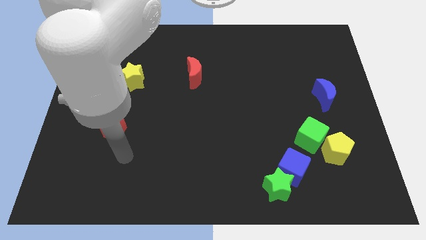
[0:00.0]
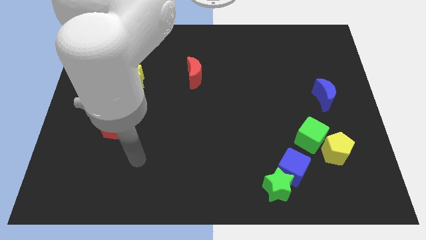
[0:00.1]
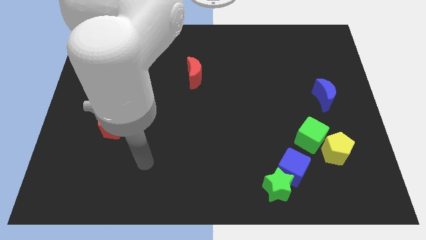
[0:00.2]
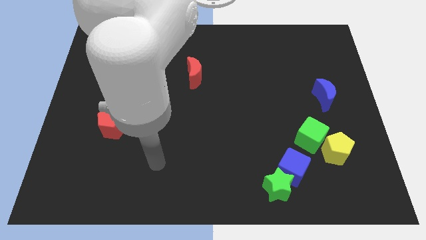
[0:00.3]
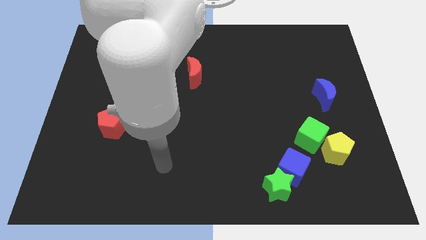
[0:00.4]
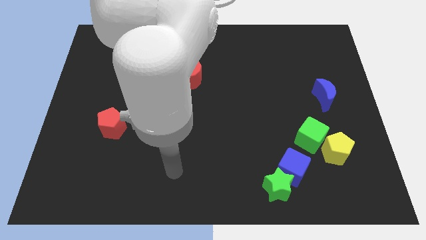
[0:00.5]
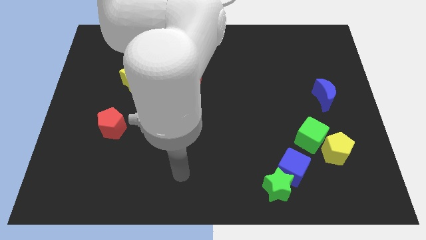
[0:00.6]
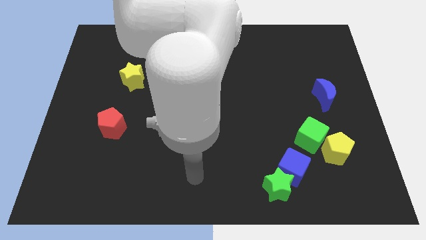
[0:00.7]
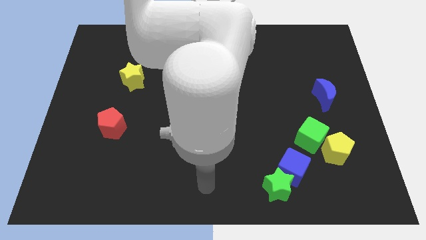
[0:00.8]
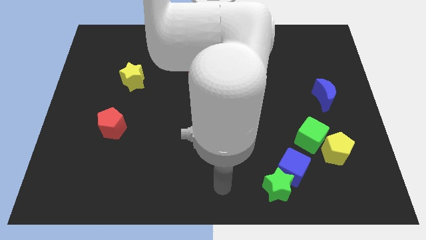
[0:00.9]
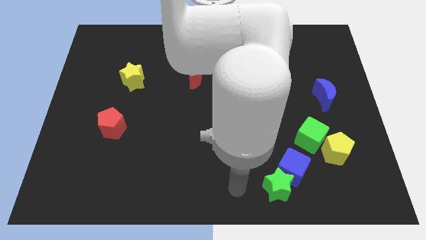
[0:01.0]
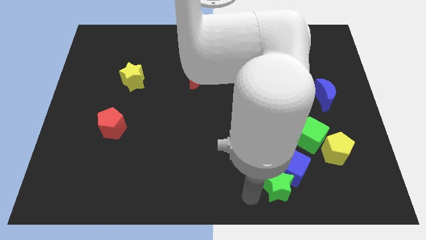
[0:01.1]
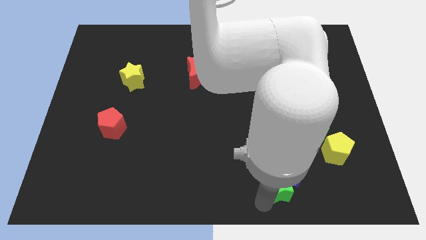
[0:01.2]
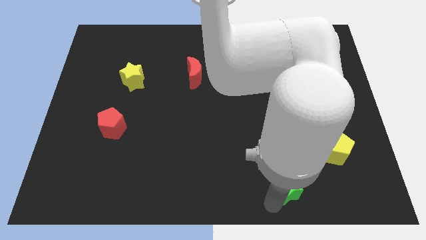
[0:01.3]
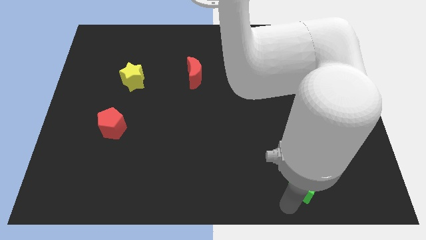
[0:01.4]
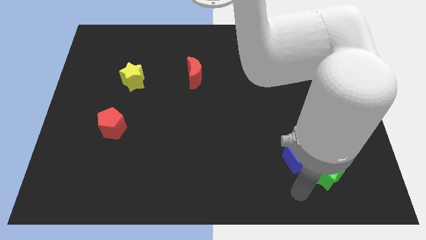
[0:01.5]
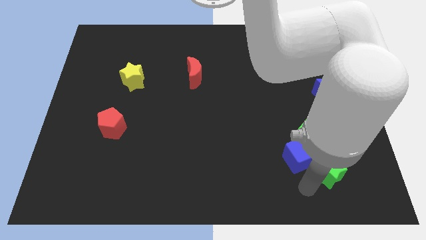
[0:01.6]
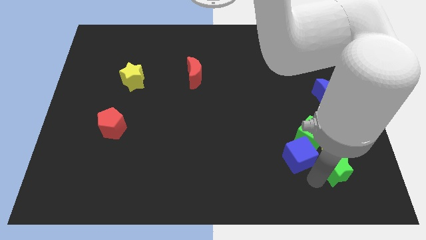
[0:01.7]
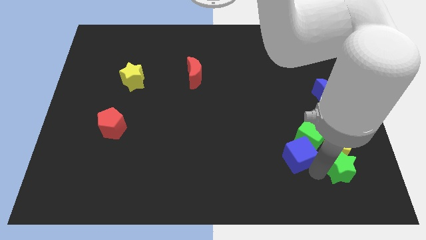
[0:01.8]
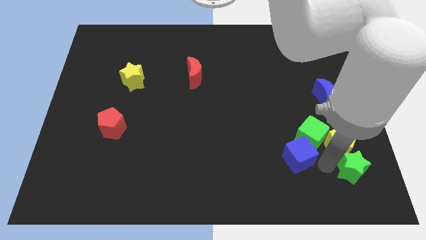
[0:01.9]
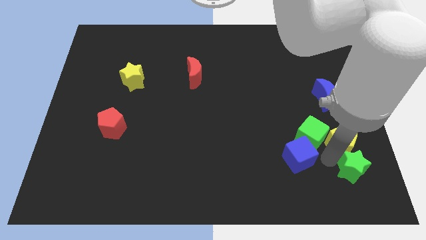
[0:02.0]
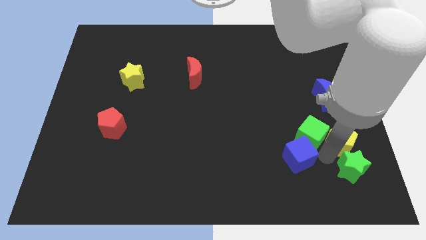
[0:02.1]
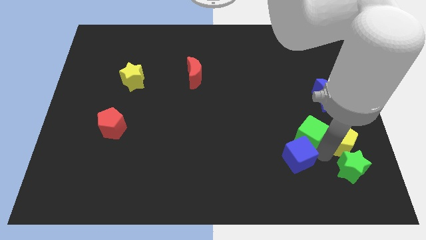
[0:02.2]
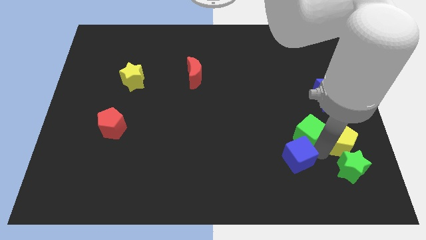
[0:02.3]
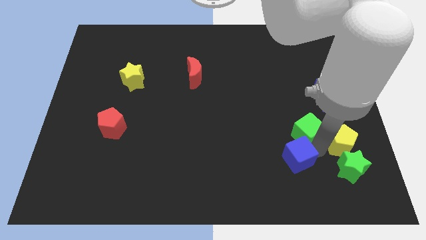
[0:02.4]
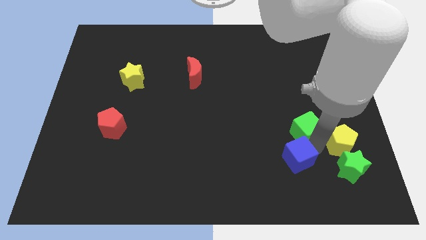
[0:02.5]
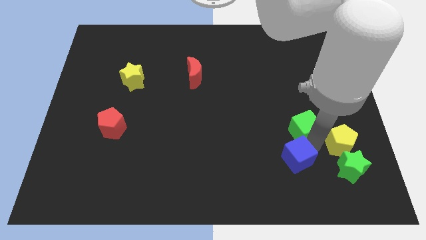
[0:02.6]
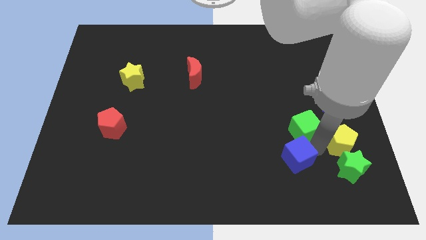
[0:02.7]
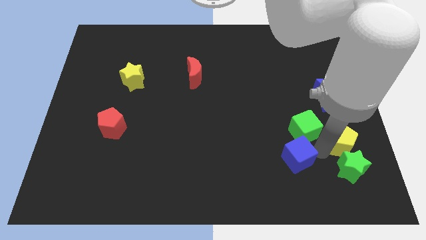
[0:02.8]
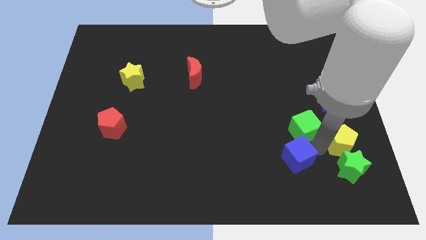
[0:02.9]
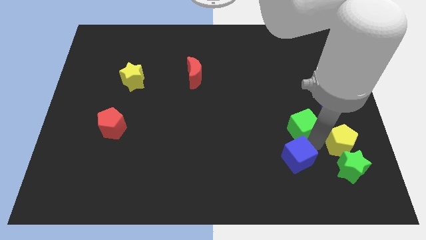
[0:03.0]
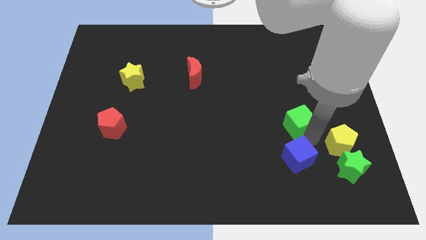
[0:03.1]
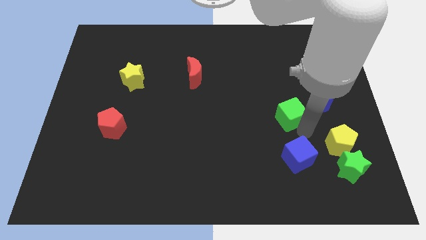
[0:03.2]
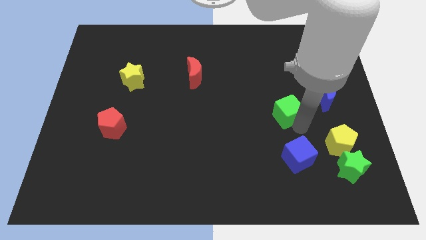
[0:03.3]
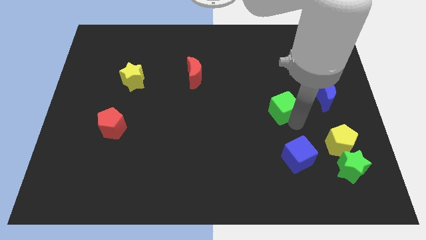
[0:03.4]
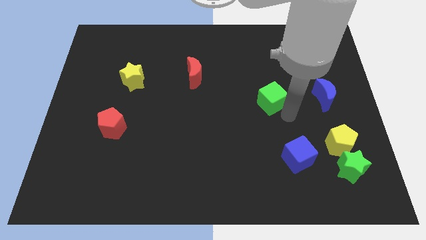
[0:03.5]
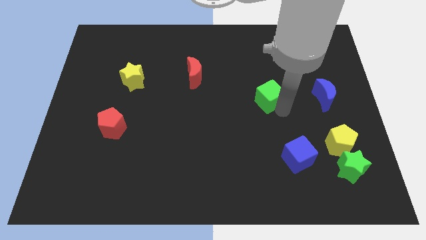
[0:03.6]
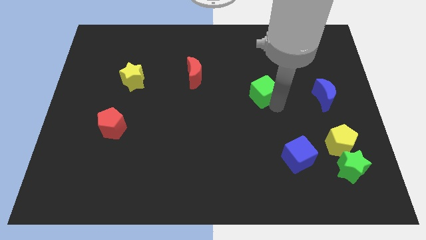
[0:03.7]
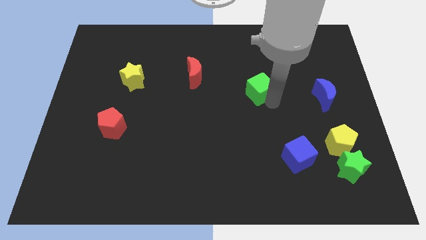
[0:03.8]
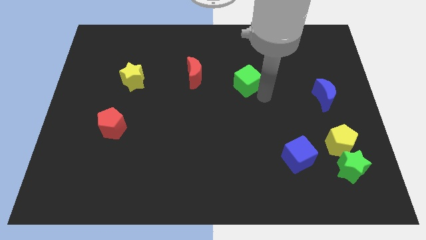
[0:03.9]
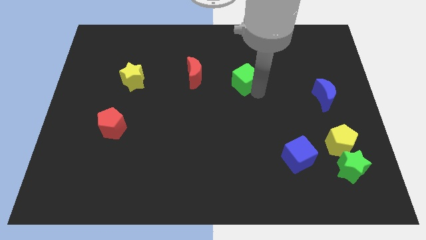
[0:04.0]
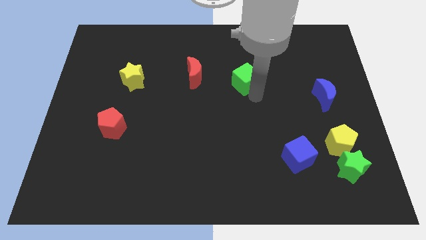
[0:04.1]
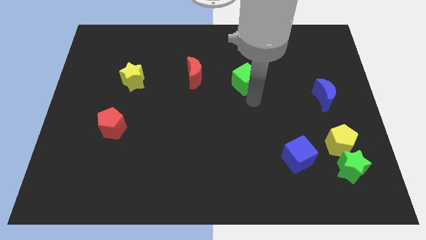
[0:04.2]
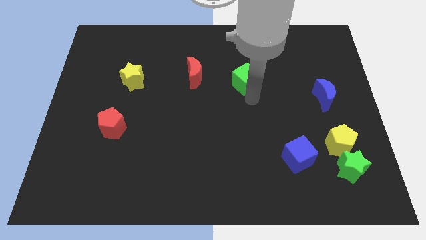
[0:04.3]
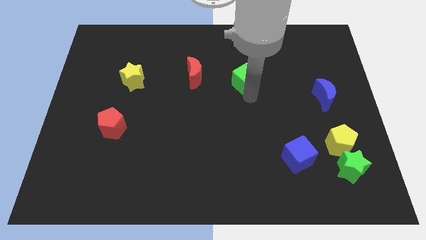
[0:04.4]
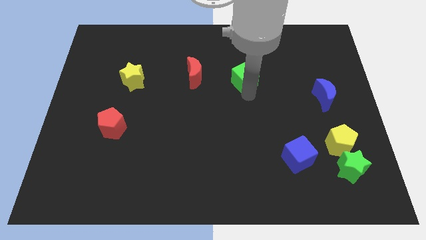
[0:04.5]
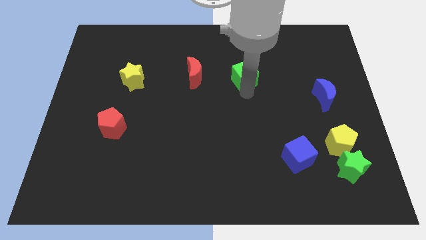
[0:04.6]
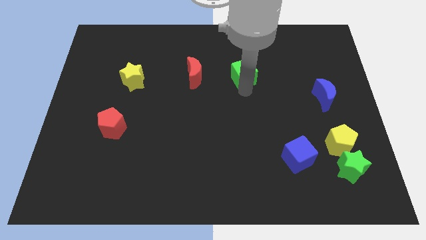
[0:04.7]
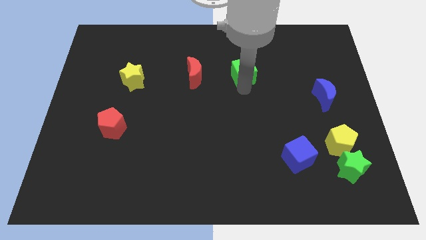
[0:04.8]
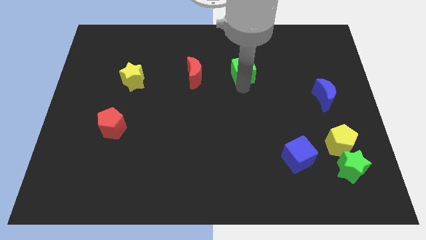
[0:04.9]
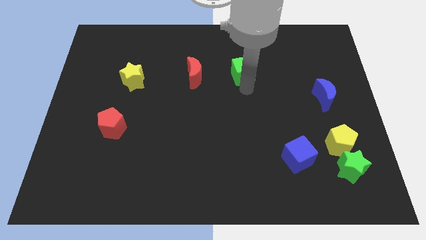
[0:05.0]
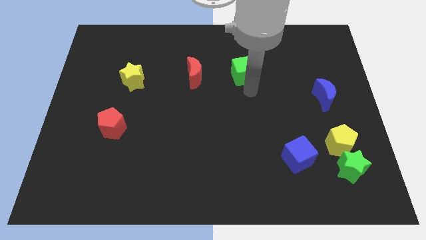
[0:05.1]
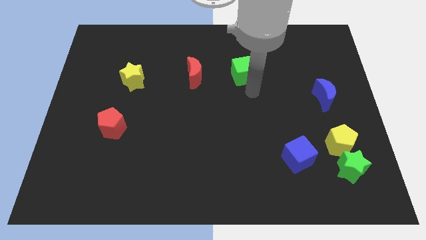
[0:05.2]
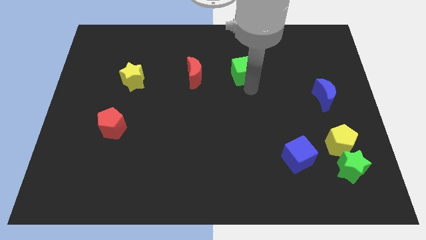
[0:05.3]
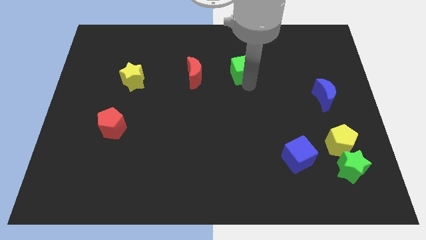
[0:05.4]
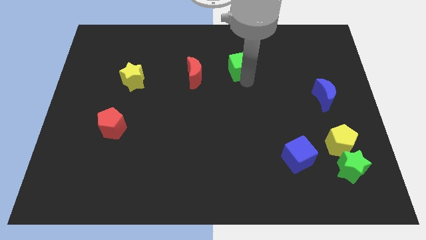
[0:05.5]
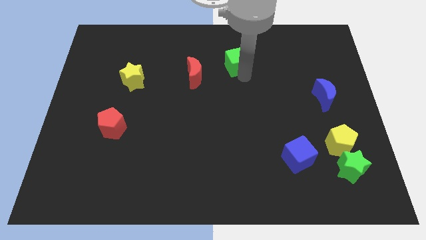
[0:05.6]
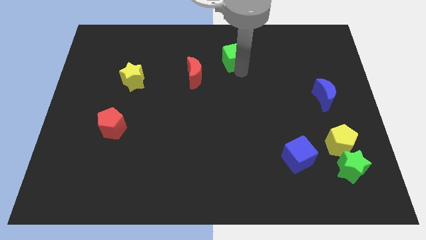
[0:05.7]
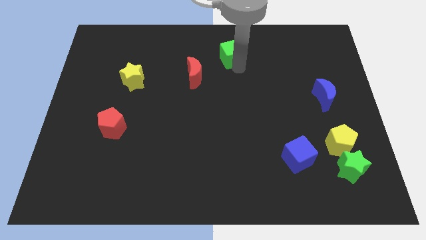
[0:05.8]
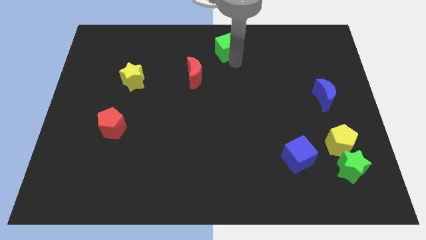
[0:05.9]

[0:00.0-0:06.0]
slide the green cube to the top side

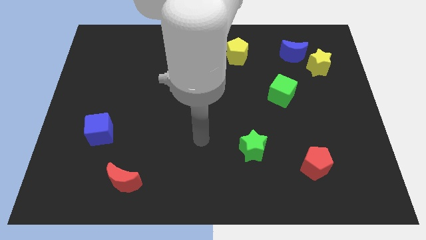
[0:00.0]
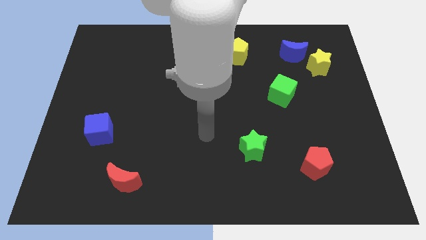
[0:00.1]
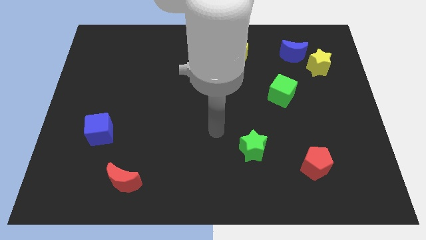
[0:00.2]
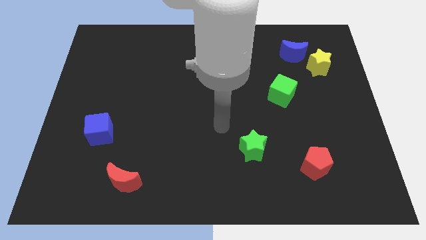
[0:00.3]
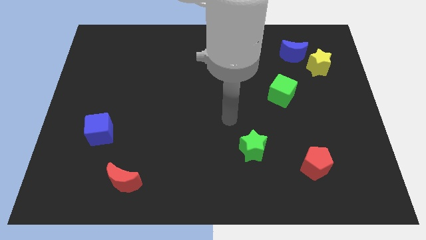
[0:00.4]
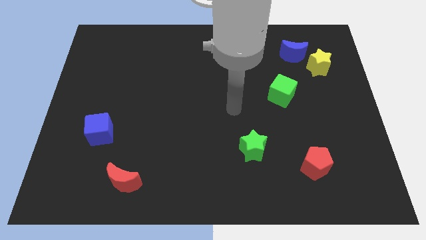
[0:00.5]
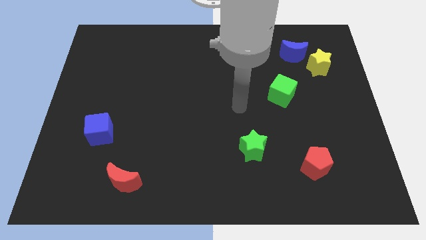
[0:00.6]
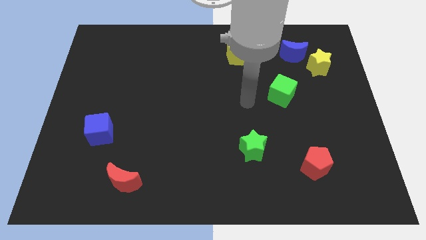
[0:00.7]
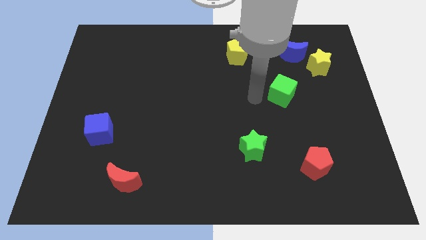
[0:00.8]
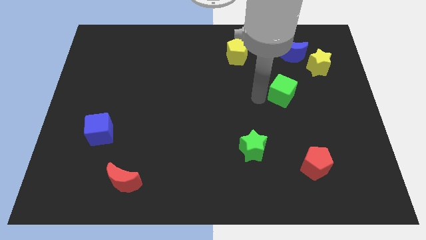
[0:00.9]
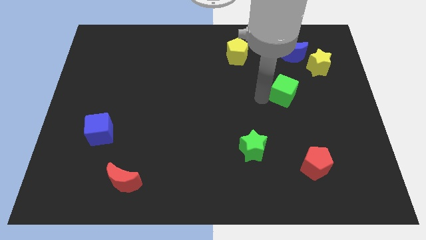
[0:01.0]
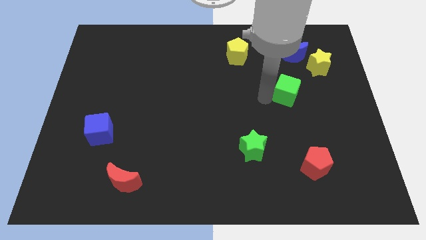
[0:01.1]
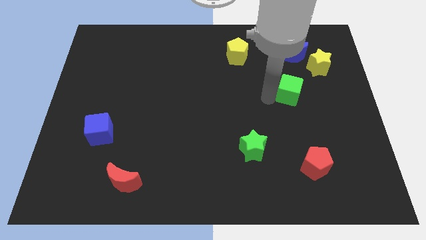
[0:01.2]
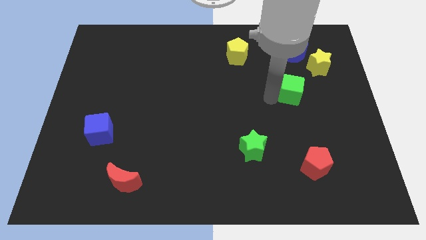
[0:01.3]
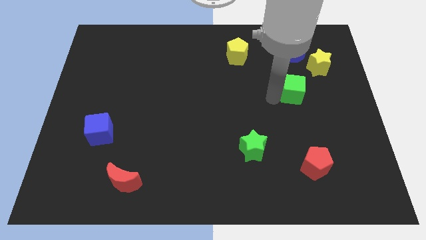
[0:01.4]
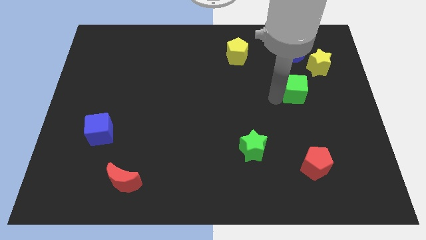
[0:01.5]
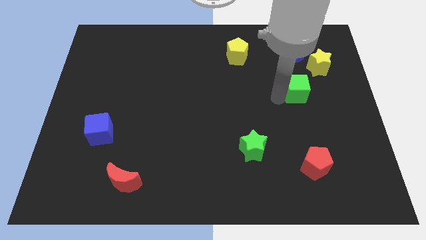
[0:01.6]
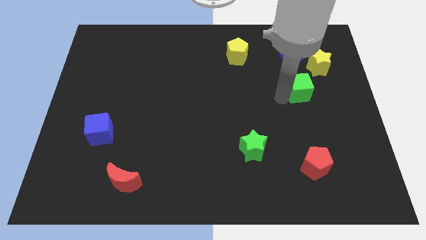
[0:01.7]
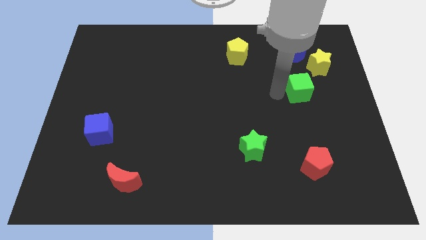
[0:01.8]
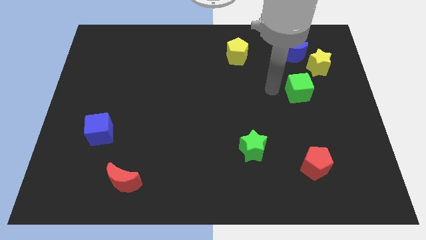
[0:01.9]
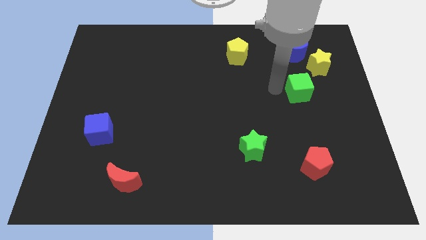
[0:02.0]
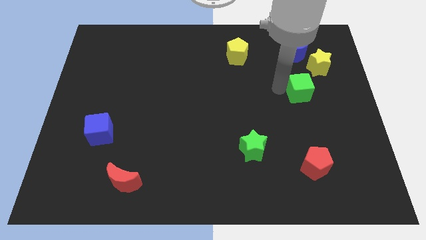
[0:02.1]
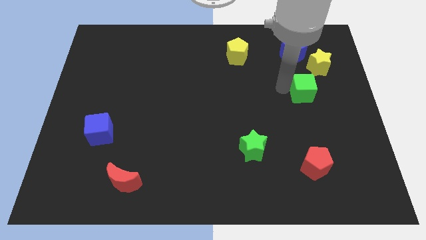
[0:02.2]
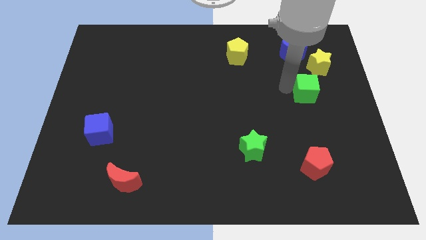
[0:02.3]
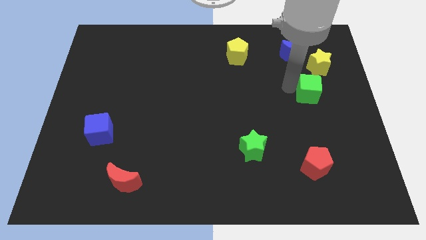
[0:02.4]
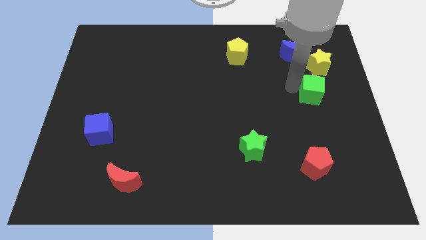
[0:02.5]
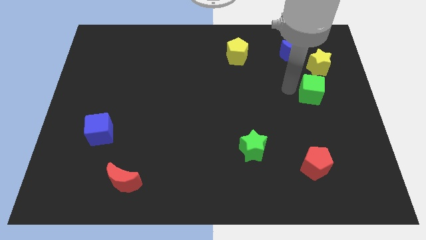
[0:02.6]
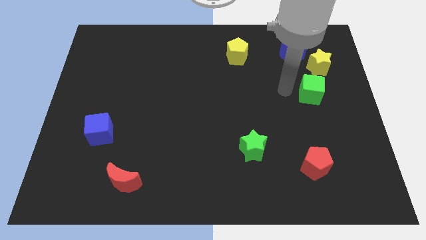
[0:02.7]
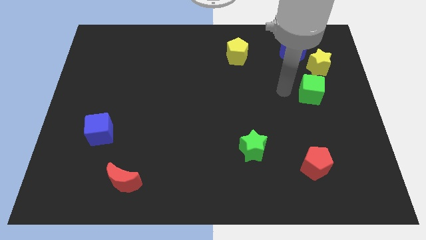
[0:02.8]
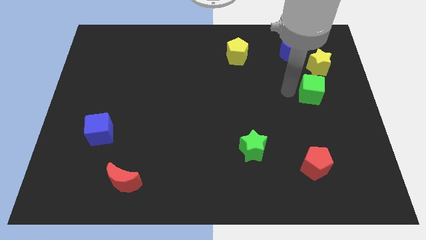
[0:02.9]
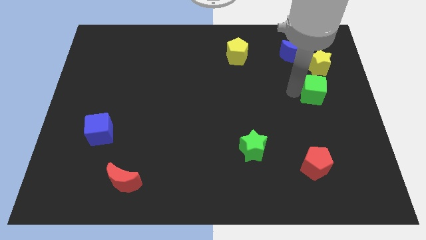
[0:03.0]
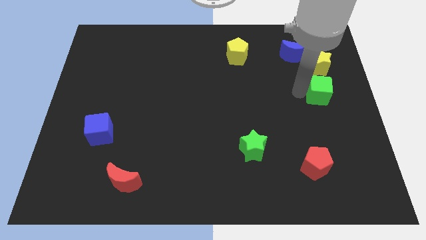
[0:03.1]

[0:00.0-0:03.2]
move the green cube to the right side
